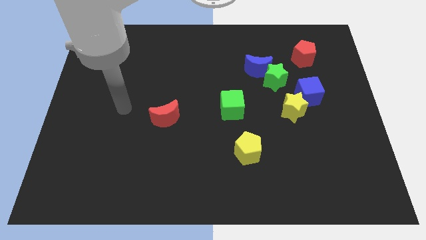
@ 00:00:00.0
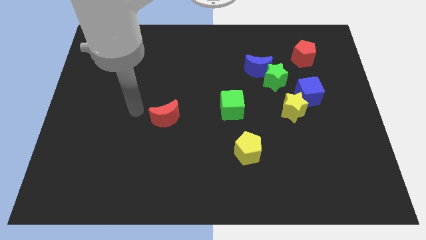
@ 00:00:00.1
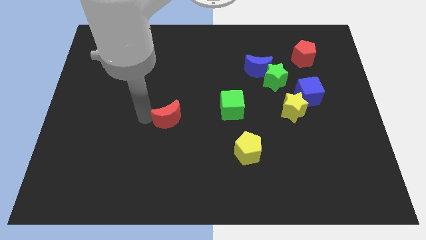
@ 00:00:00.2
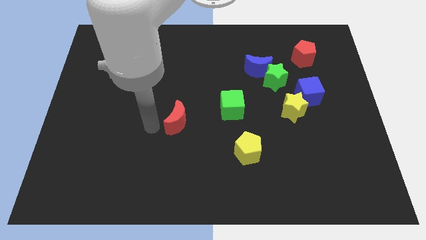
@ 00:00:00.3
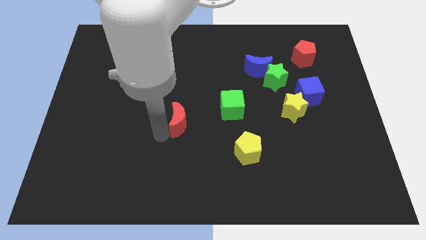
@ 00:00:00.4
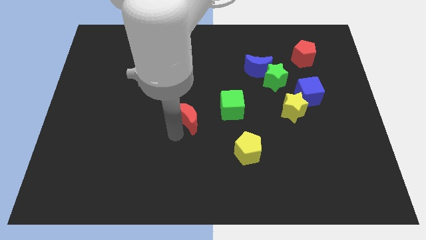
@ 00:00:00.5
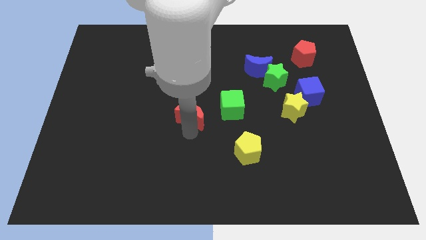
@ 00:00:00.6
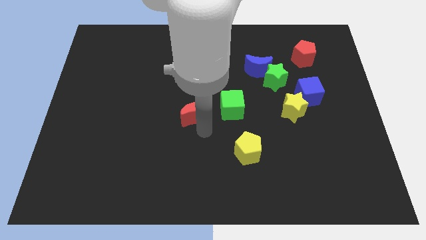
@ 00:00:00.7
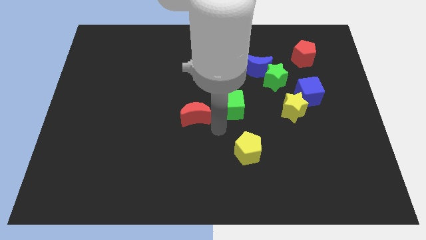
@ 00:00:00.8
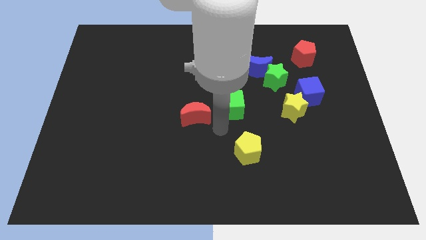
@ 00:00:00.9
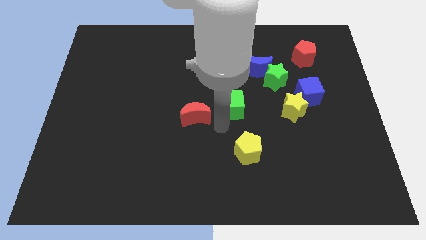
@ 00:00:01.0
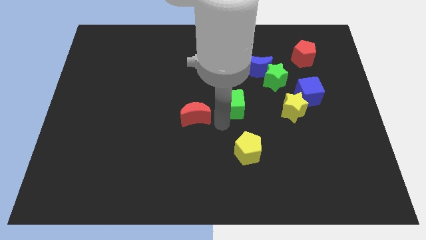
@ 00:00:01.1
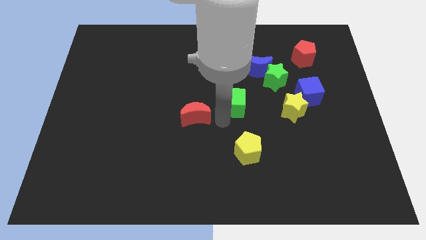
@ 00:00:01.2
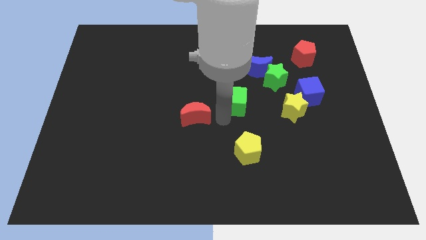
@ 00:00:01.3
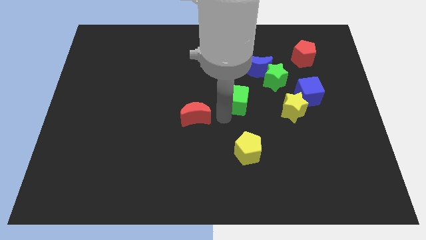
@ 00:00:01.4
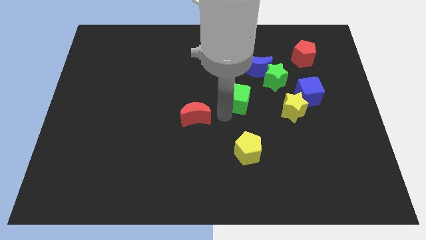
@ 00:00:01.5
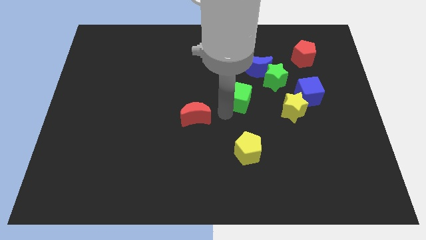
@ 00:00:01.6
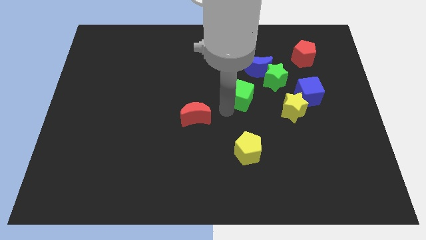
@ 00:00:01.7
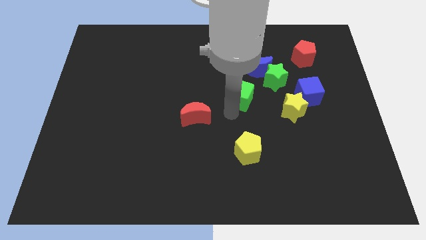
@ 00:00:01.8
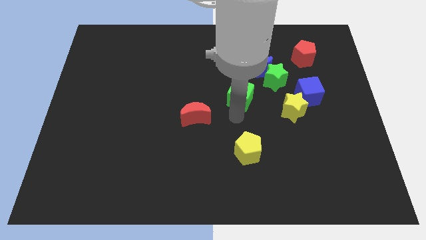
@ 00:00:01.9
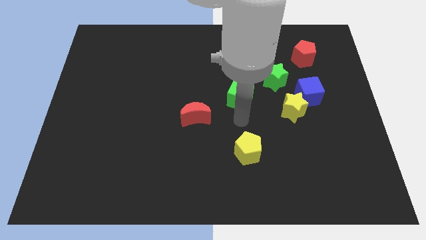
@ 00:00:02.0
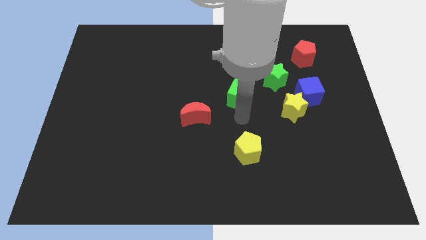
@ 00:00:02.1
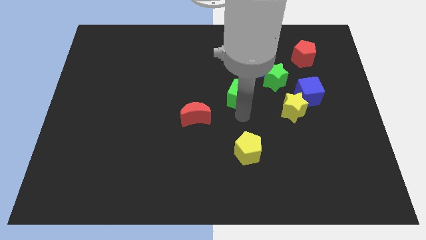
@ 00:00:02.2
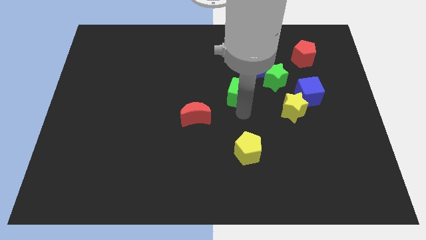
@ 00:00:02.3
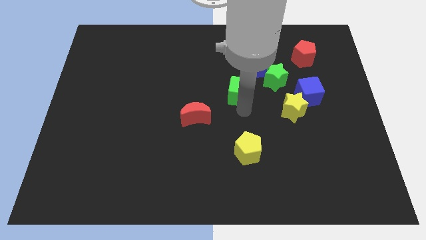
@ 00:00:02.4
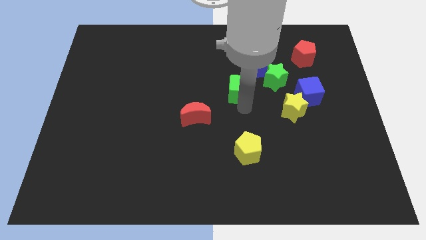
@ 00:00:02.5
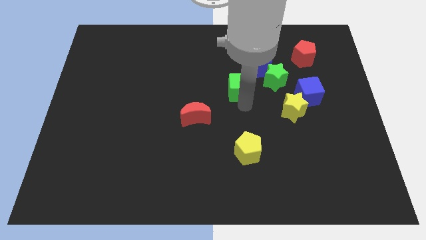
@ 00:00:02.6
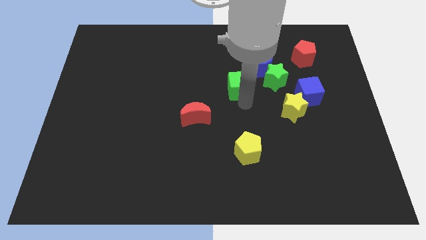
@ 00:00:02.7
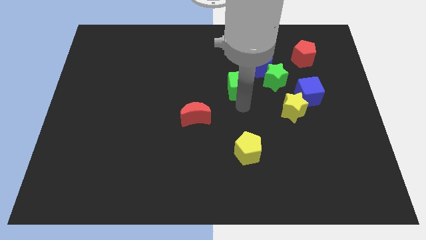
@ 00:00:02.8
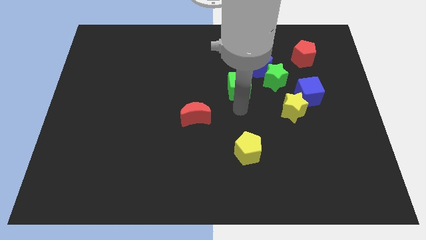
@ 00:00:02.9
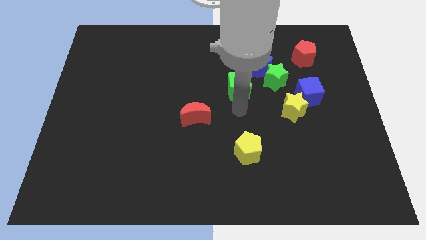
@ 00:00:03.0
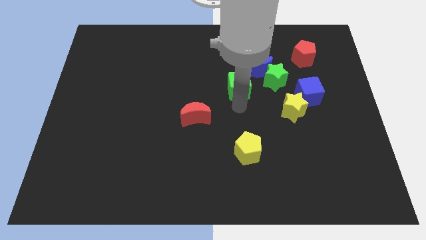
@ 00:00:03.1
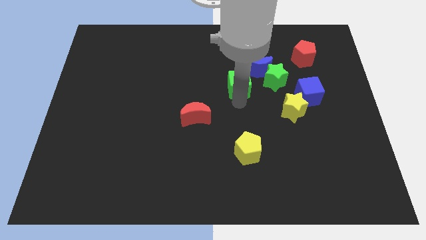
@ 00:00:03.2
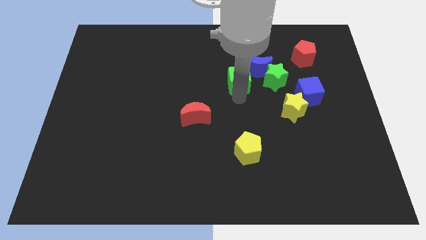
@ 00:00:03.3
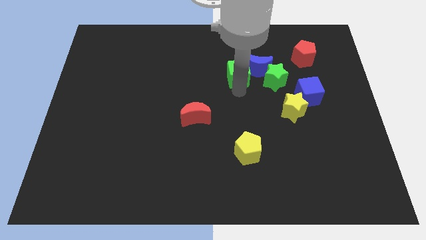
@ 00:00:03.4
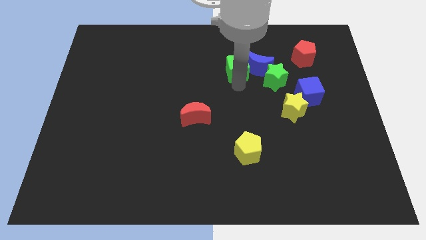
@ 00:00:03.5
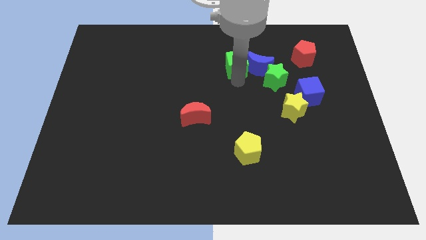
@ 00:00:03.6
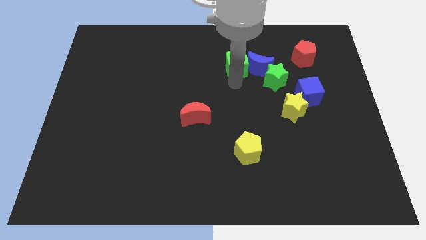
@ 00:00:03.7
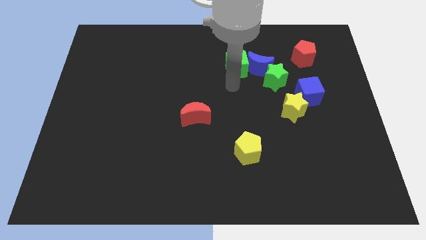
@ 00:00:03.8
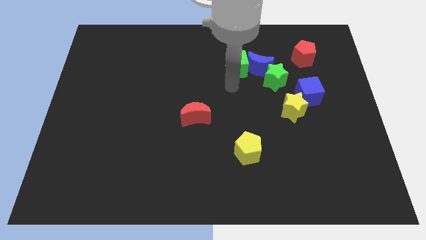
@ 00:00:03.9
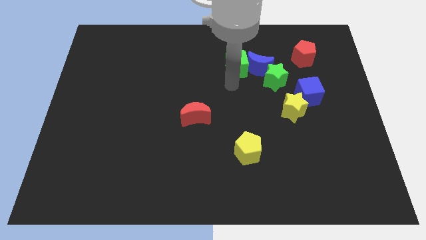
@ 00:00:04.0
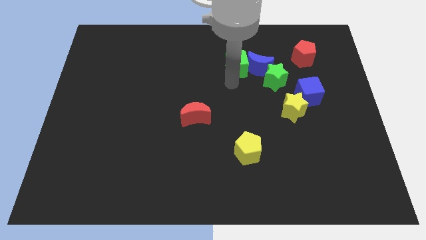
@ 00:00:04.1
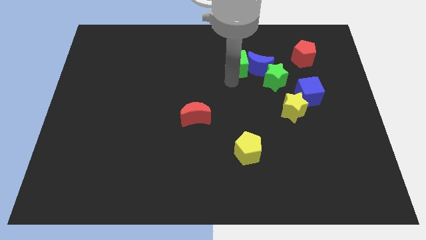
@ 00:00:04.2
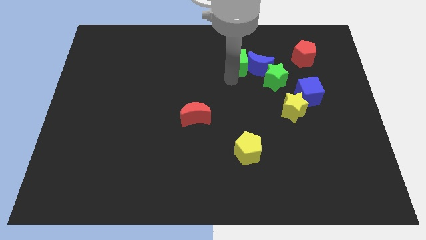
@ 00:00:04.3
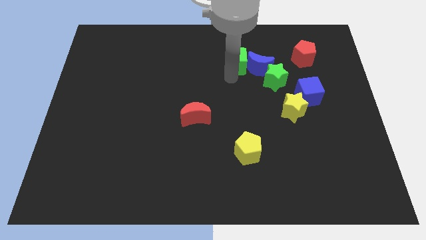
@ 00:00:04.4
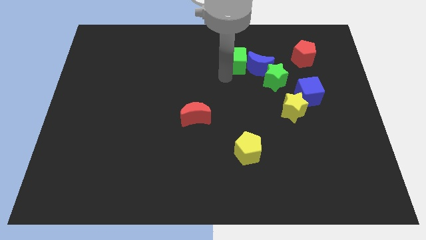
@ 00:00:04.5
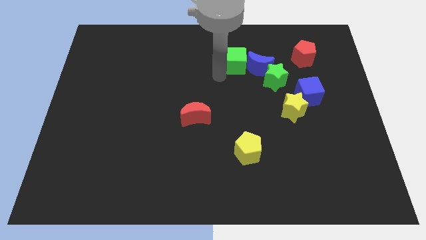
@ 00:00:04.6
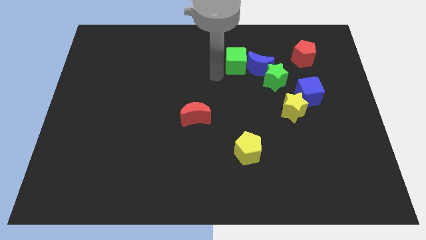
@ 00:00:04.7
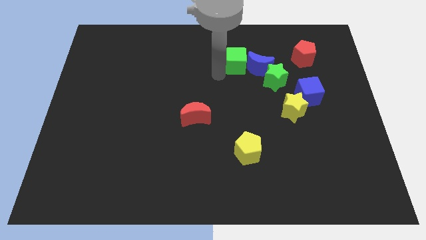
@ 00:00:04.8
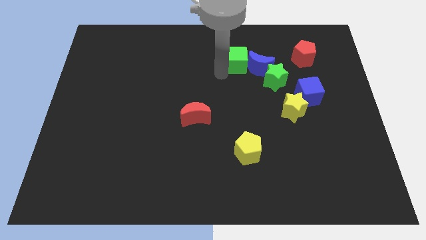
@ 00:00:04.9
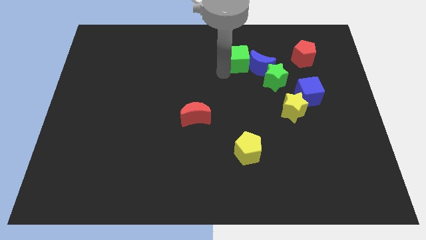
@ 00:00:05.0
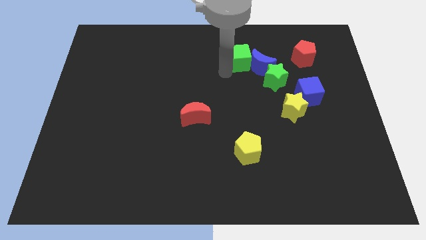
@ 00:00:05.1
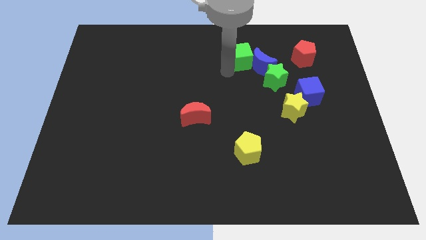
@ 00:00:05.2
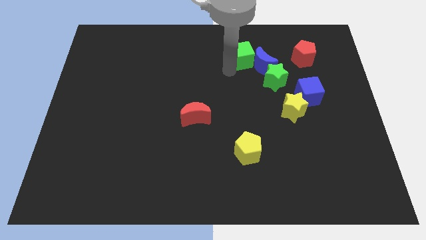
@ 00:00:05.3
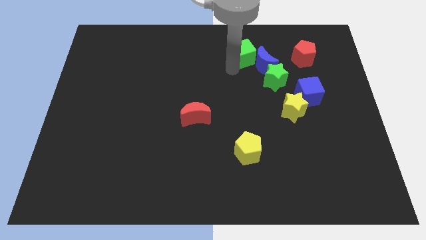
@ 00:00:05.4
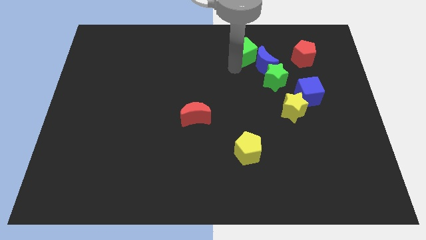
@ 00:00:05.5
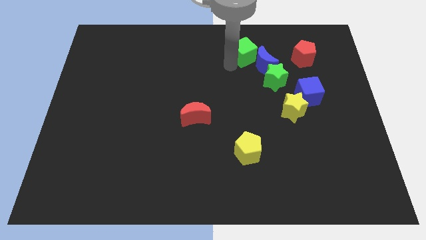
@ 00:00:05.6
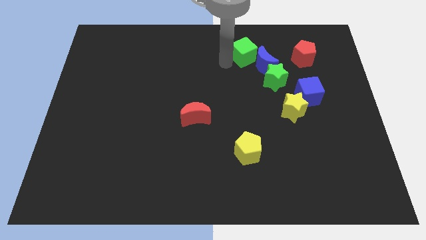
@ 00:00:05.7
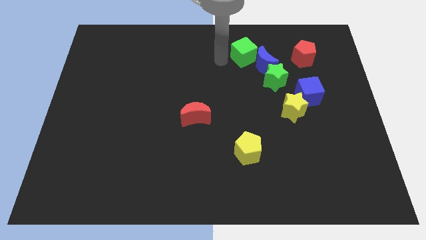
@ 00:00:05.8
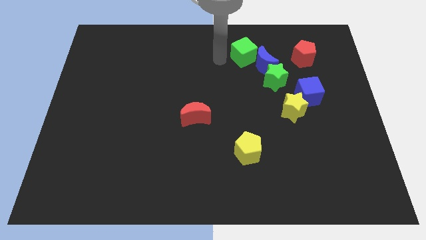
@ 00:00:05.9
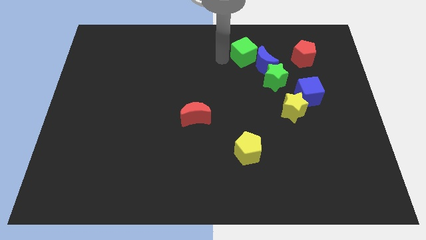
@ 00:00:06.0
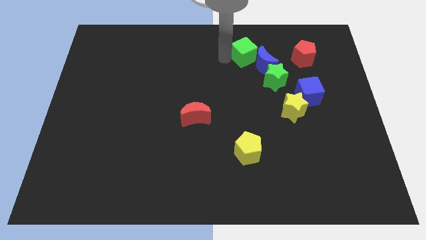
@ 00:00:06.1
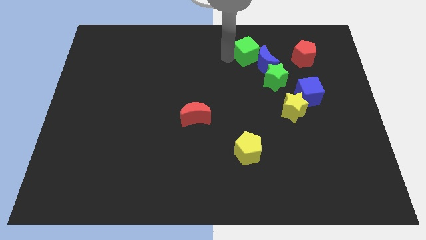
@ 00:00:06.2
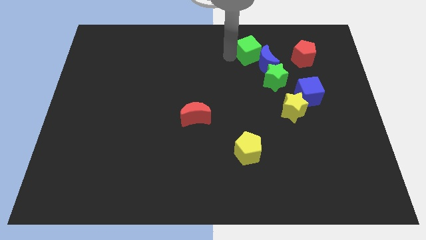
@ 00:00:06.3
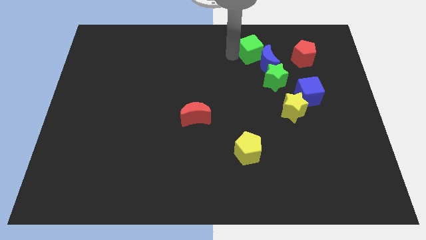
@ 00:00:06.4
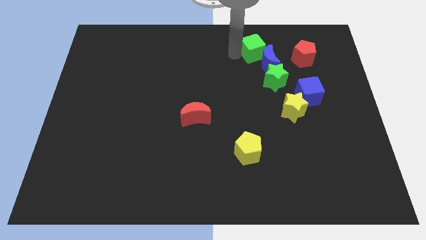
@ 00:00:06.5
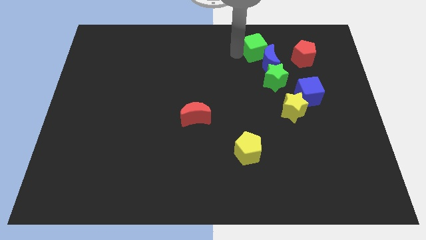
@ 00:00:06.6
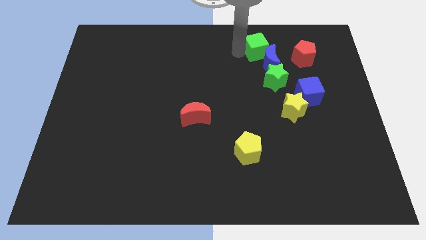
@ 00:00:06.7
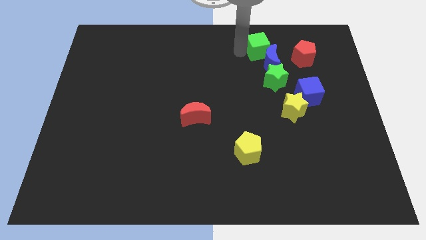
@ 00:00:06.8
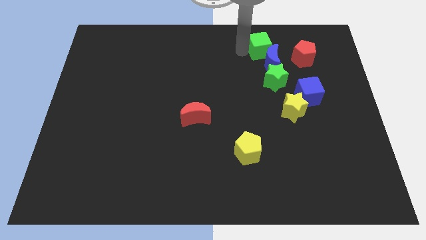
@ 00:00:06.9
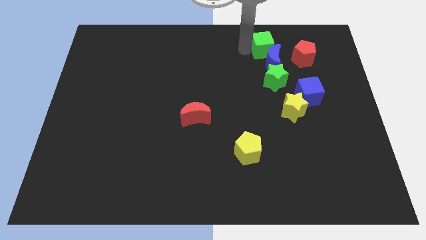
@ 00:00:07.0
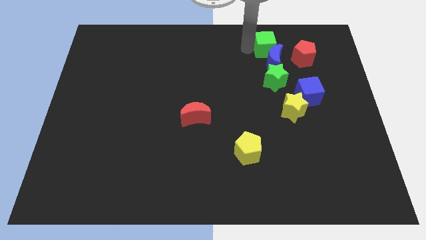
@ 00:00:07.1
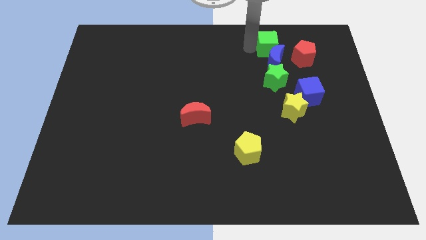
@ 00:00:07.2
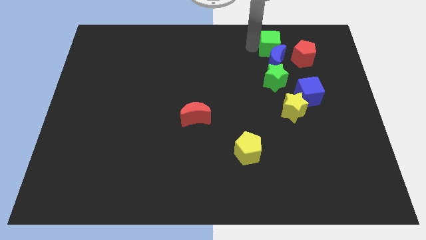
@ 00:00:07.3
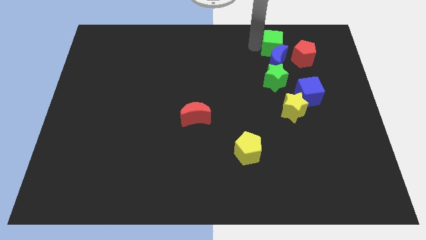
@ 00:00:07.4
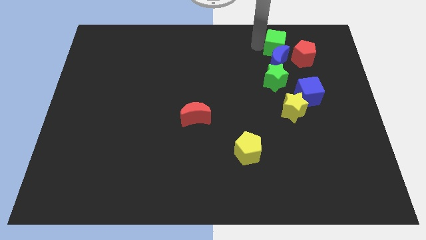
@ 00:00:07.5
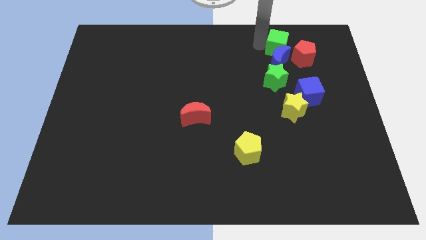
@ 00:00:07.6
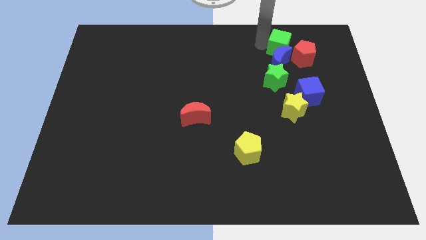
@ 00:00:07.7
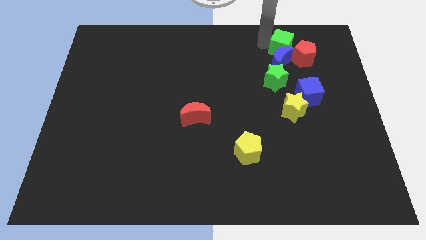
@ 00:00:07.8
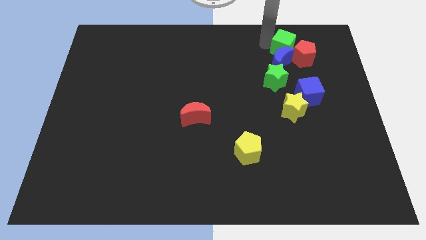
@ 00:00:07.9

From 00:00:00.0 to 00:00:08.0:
push the green cube towards the red pentagon
